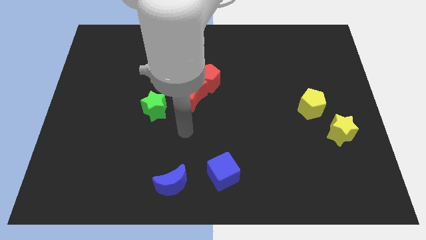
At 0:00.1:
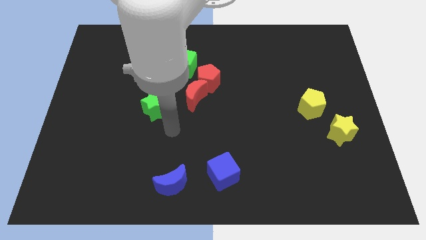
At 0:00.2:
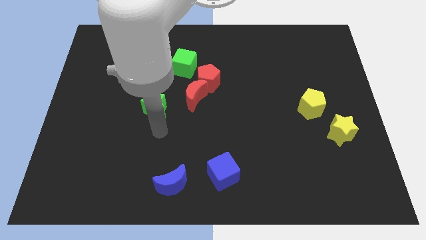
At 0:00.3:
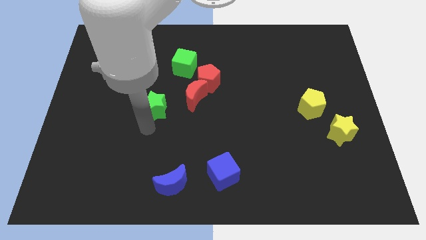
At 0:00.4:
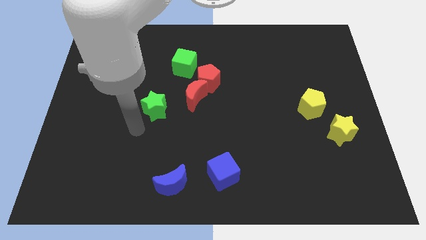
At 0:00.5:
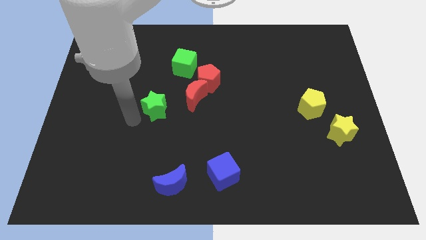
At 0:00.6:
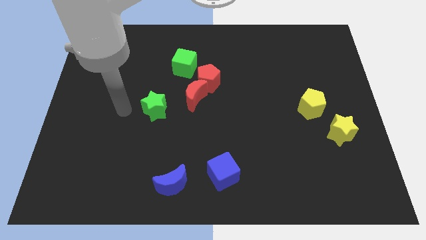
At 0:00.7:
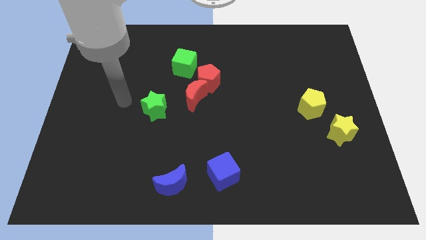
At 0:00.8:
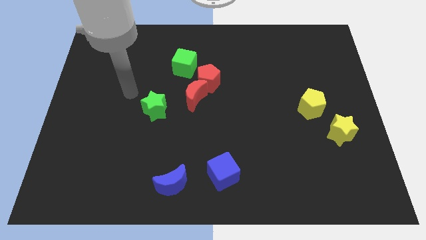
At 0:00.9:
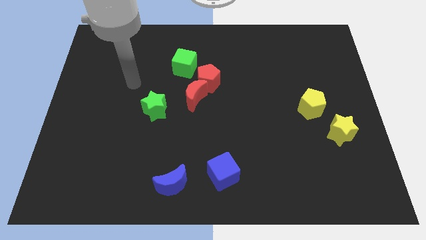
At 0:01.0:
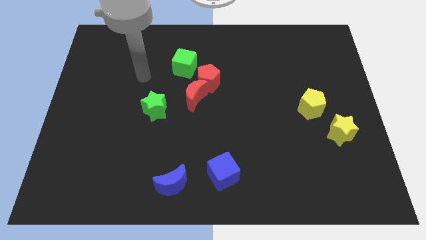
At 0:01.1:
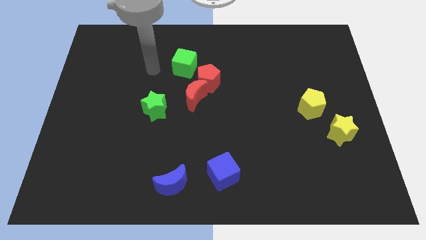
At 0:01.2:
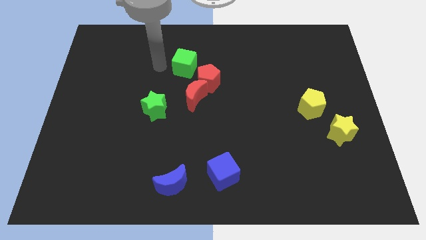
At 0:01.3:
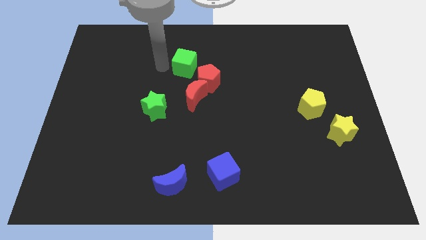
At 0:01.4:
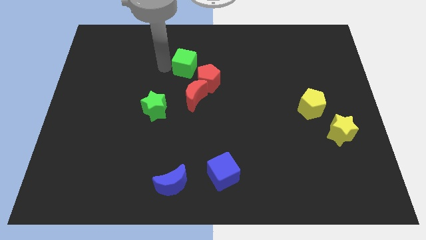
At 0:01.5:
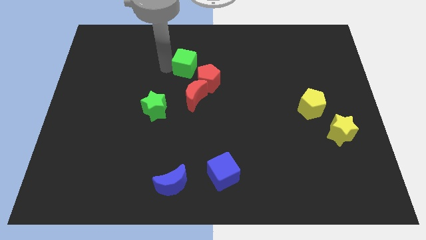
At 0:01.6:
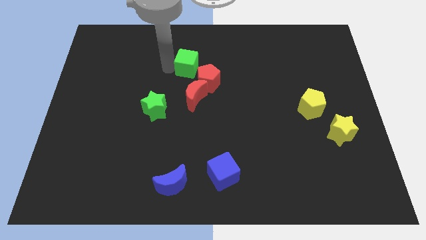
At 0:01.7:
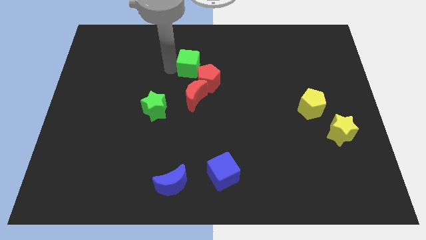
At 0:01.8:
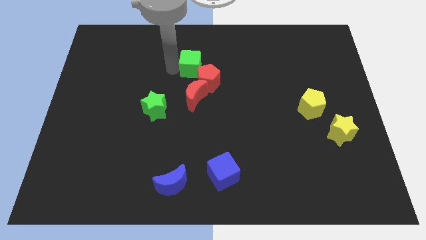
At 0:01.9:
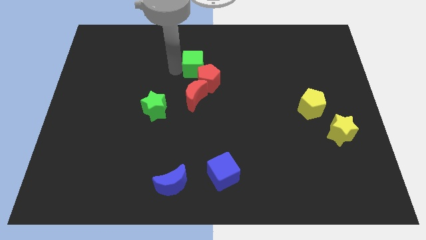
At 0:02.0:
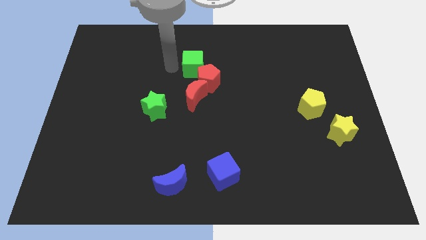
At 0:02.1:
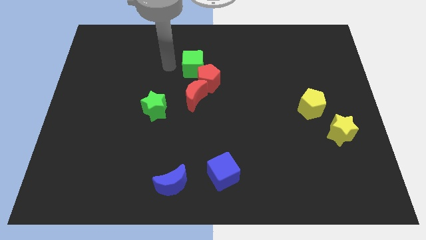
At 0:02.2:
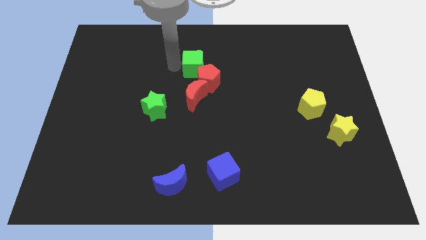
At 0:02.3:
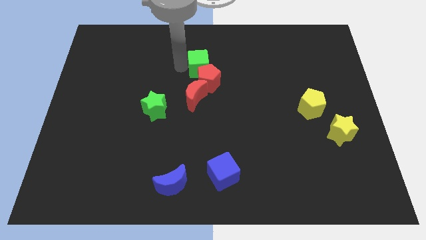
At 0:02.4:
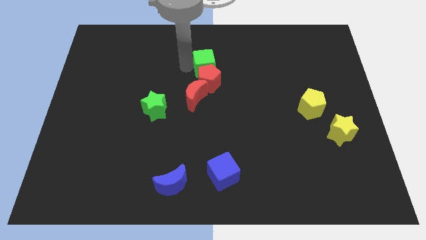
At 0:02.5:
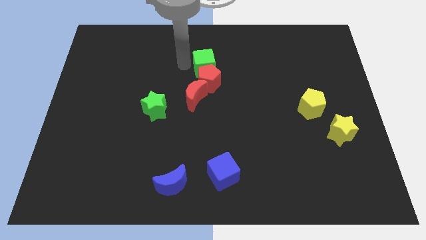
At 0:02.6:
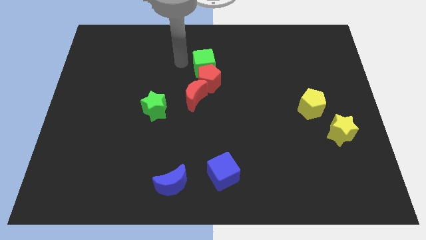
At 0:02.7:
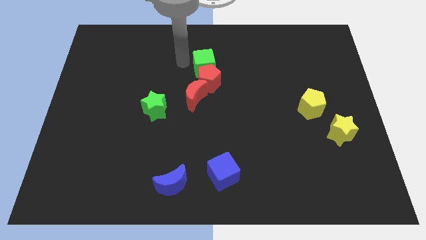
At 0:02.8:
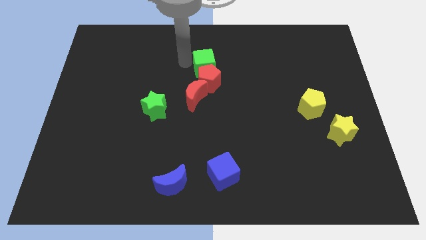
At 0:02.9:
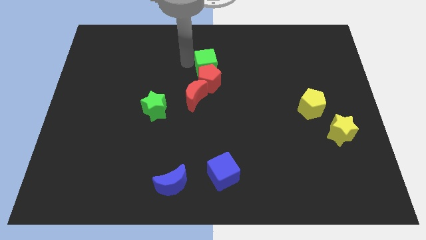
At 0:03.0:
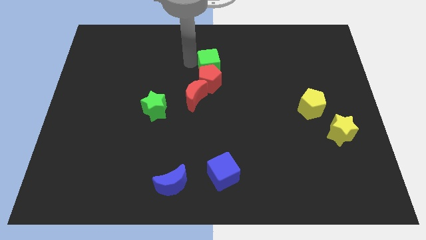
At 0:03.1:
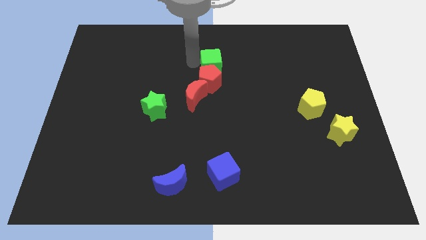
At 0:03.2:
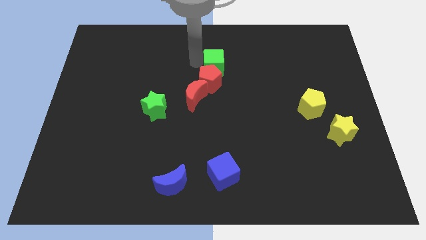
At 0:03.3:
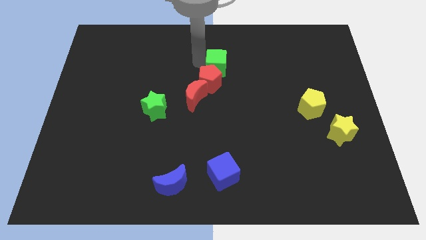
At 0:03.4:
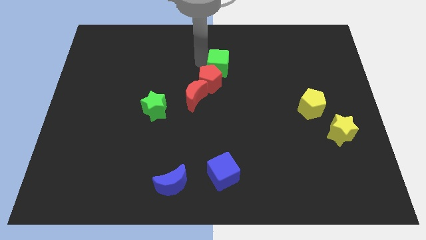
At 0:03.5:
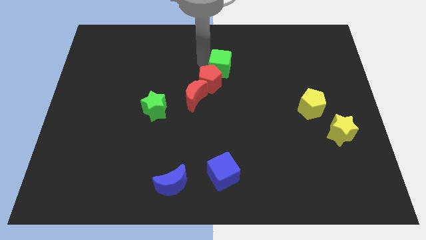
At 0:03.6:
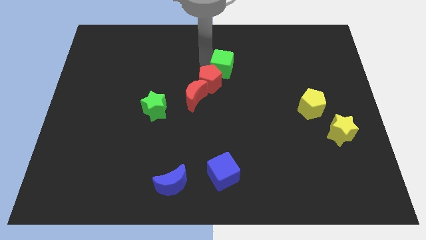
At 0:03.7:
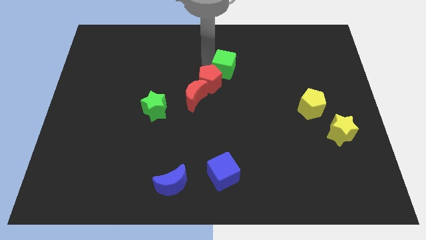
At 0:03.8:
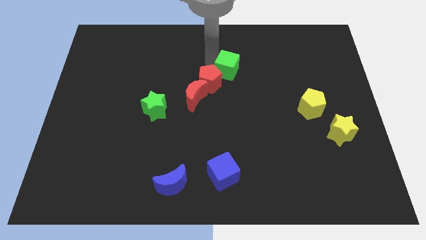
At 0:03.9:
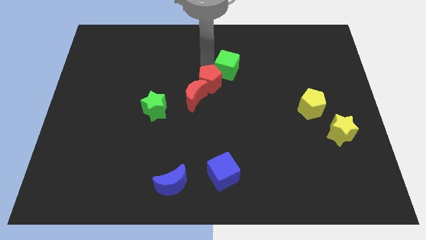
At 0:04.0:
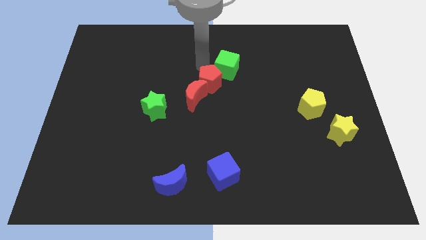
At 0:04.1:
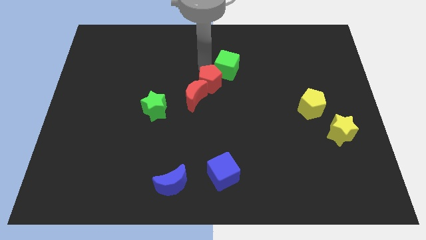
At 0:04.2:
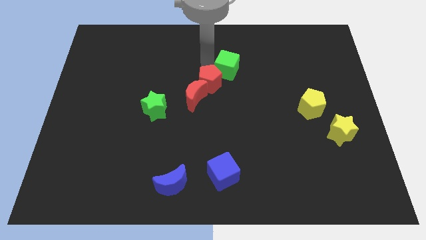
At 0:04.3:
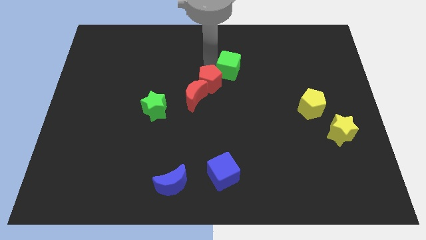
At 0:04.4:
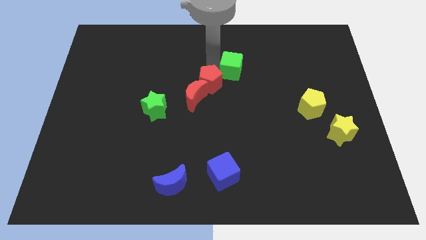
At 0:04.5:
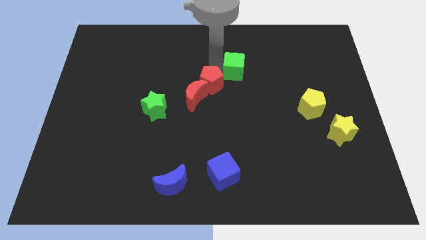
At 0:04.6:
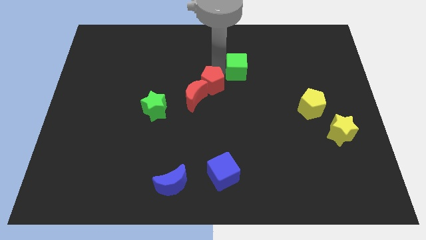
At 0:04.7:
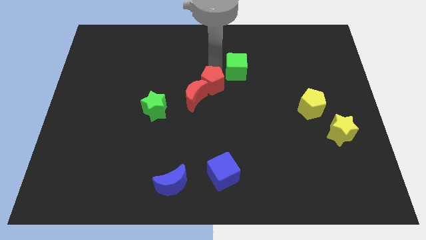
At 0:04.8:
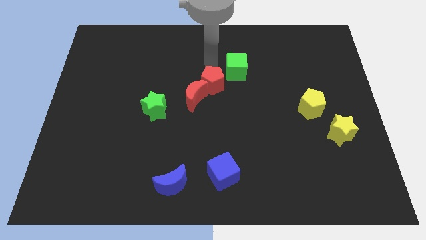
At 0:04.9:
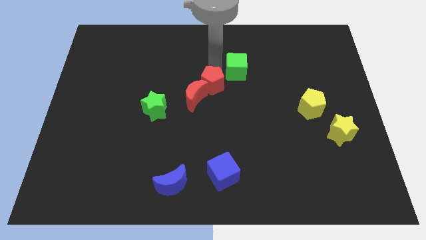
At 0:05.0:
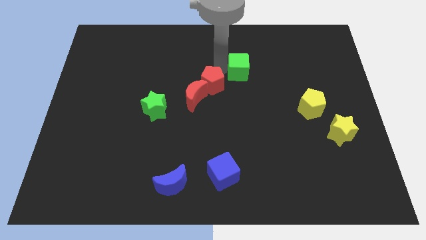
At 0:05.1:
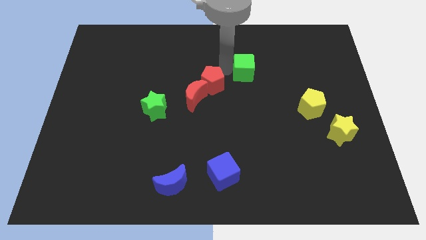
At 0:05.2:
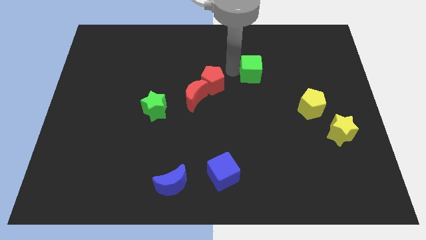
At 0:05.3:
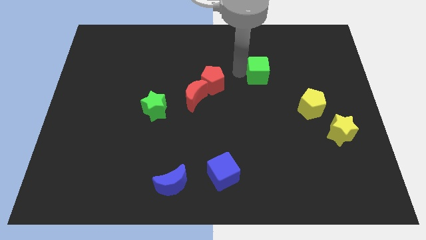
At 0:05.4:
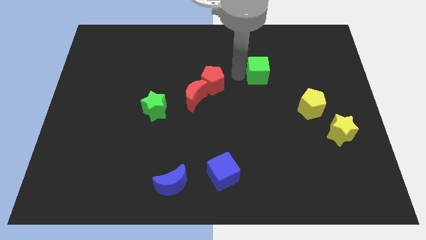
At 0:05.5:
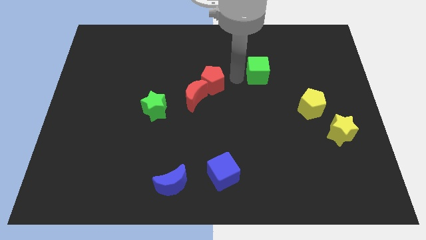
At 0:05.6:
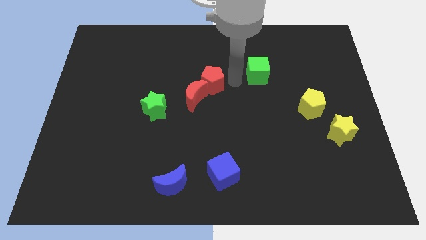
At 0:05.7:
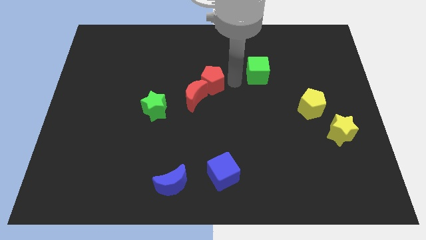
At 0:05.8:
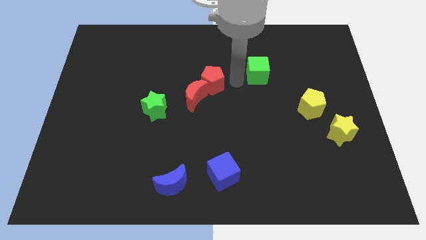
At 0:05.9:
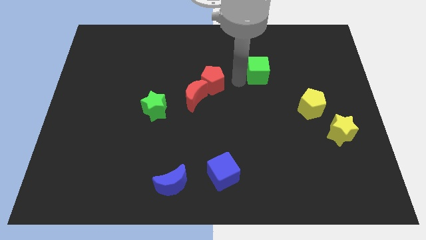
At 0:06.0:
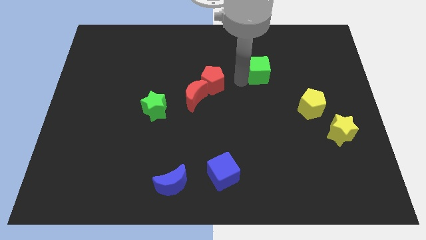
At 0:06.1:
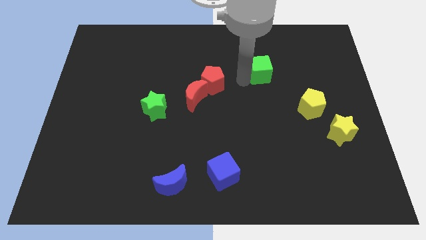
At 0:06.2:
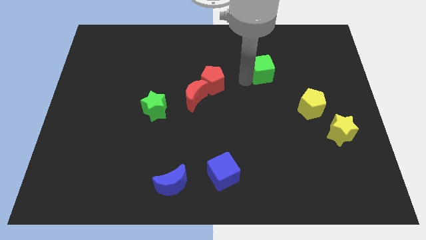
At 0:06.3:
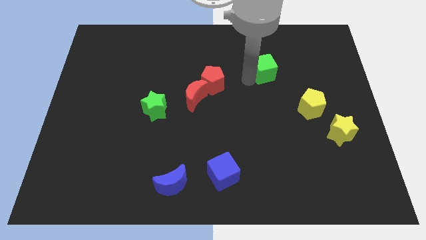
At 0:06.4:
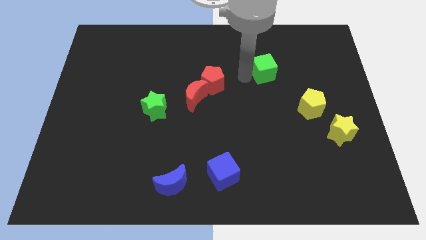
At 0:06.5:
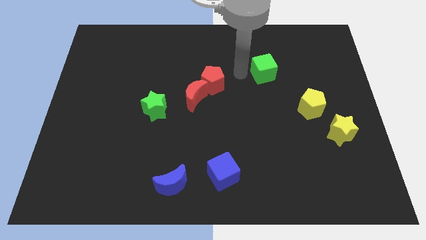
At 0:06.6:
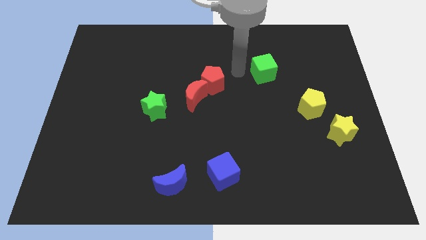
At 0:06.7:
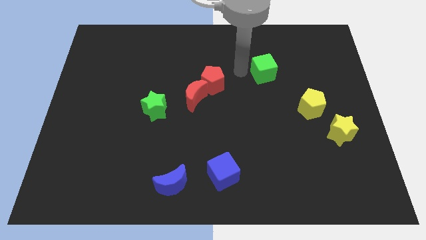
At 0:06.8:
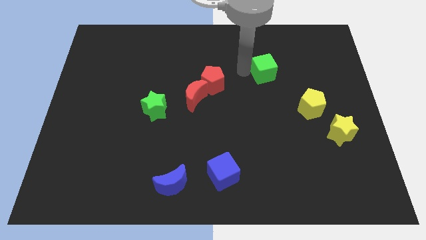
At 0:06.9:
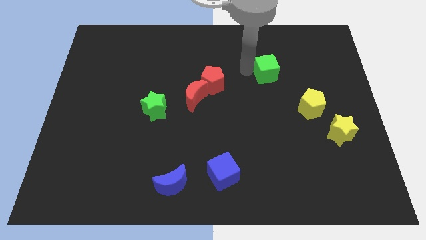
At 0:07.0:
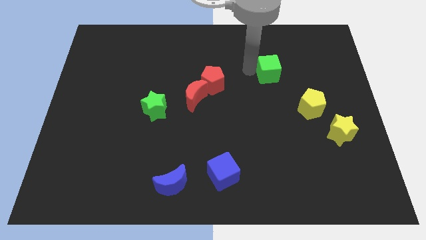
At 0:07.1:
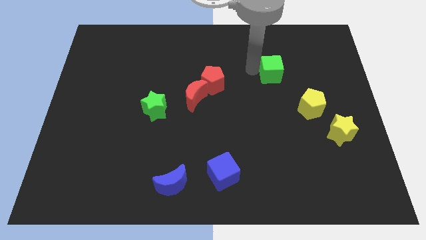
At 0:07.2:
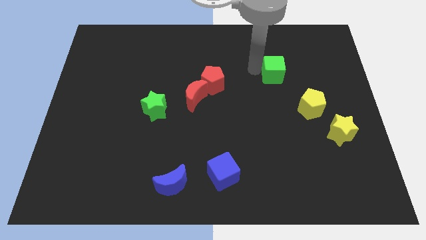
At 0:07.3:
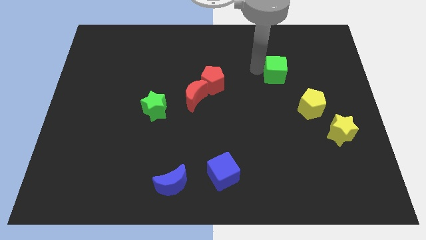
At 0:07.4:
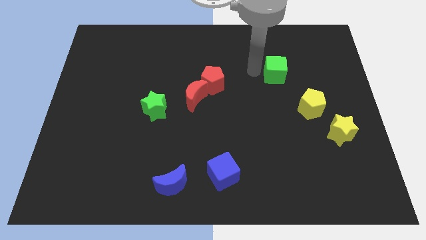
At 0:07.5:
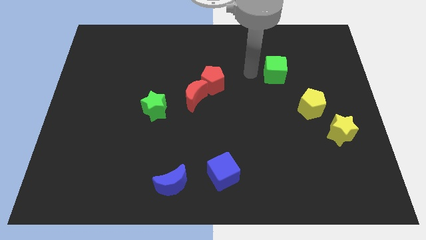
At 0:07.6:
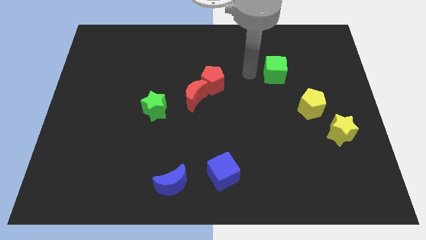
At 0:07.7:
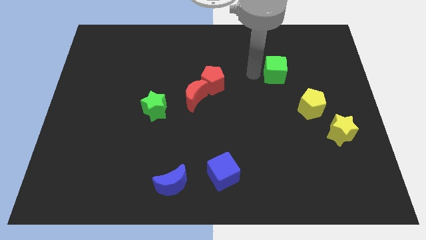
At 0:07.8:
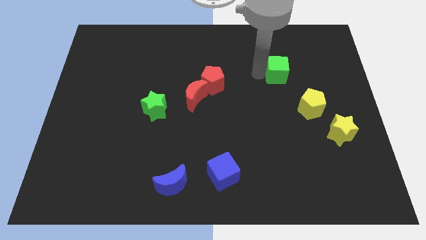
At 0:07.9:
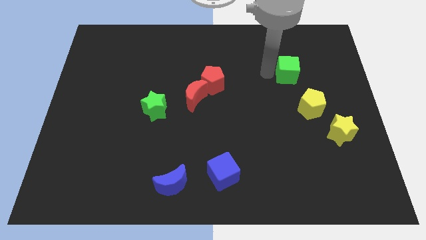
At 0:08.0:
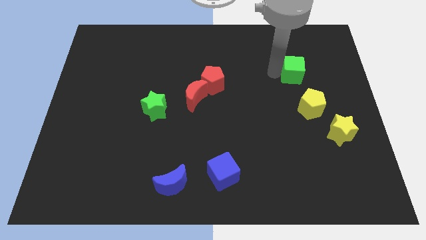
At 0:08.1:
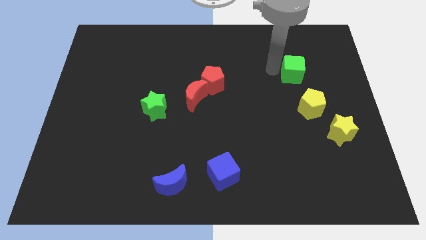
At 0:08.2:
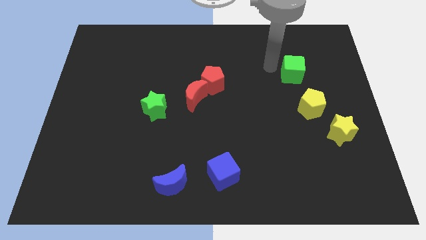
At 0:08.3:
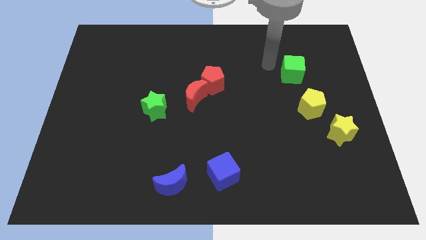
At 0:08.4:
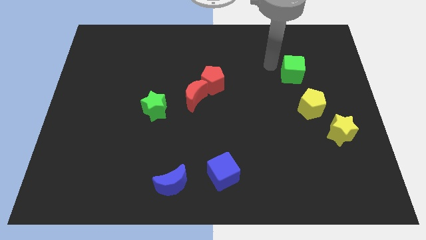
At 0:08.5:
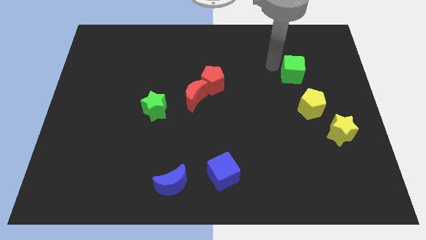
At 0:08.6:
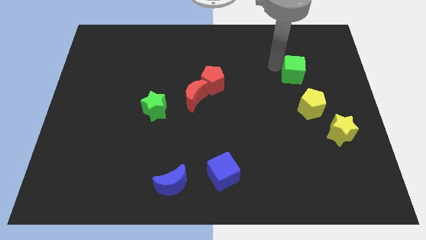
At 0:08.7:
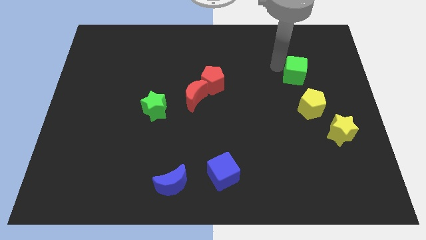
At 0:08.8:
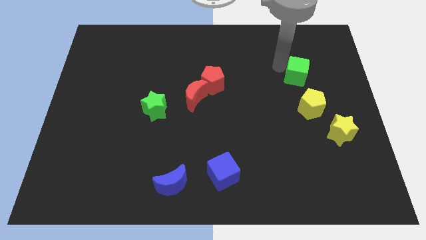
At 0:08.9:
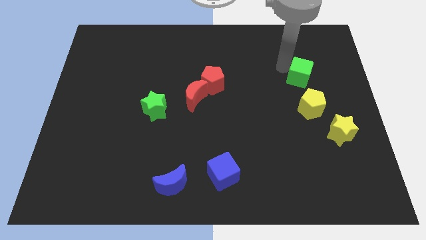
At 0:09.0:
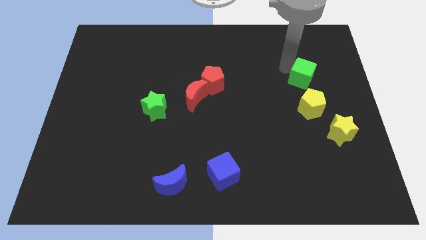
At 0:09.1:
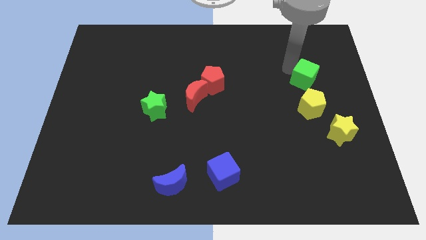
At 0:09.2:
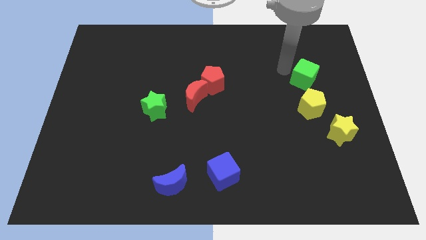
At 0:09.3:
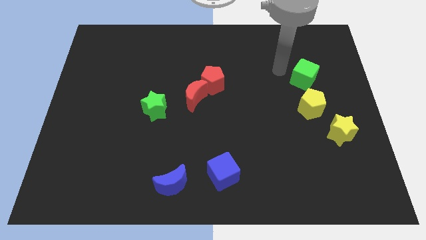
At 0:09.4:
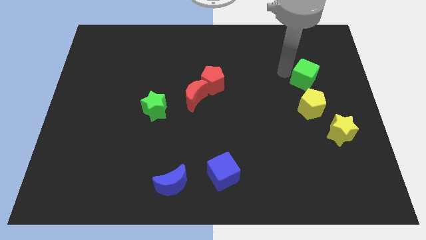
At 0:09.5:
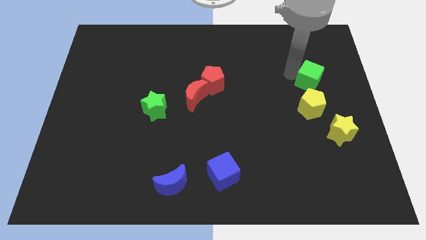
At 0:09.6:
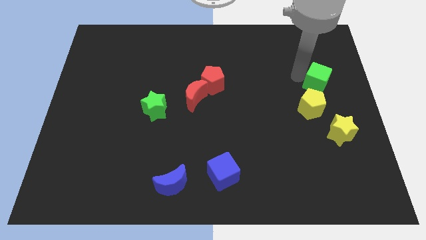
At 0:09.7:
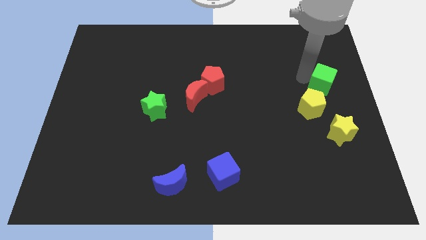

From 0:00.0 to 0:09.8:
put the green cube to the right side
